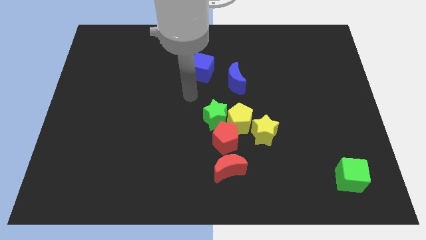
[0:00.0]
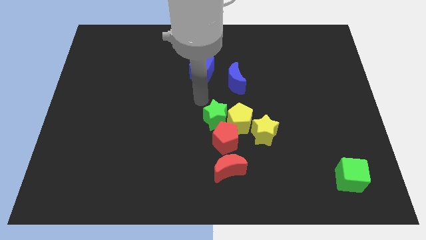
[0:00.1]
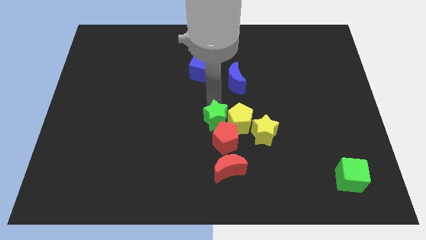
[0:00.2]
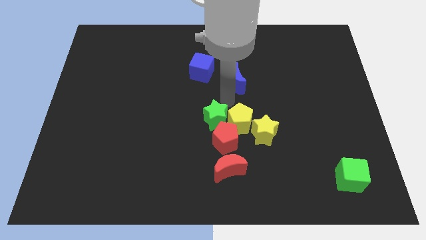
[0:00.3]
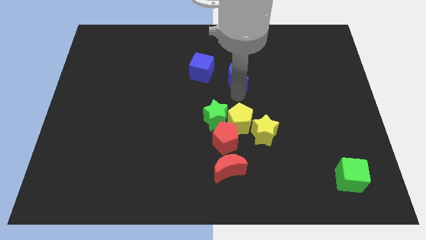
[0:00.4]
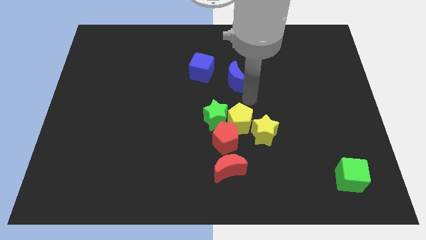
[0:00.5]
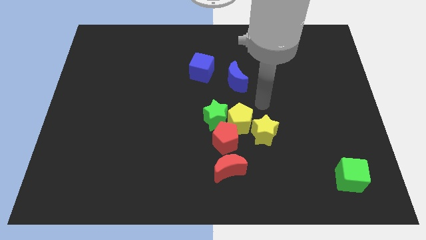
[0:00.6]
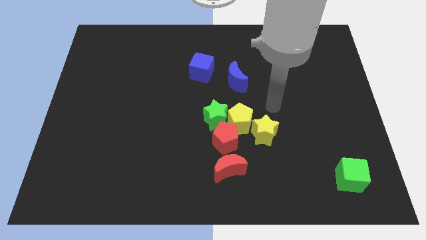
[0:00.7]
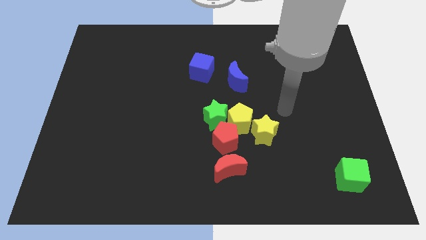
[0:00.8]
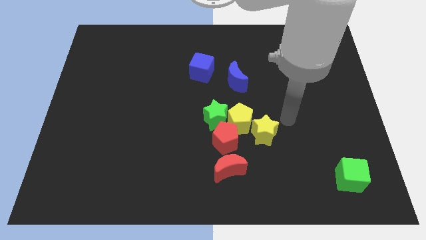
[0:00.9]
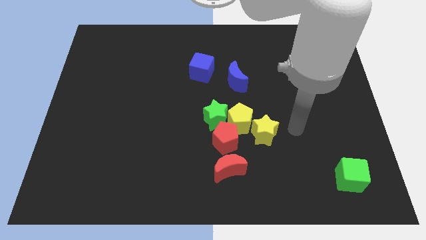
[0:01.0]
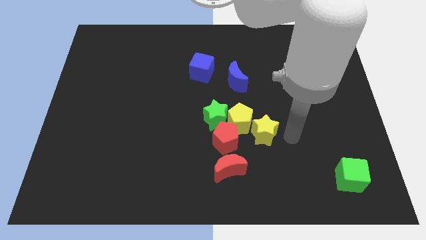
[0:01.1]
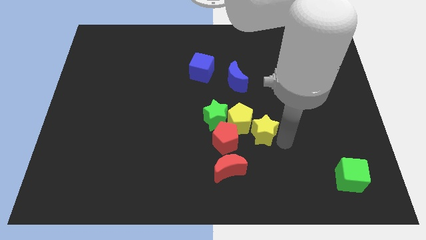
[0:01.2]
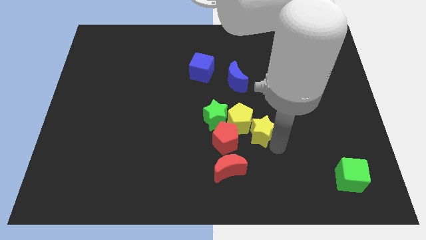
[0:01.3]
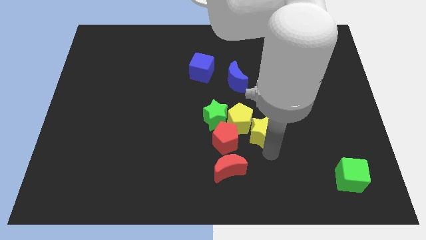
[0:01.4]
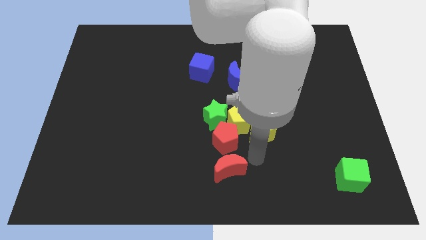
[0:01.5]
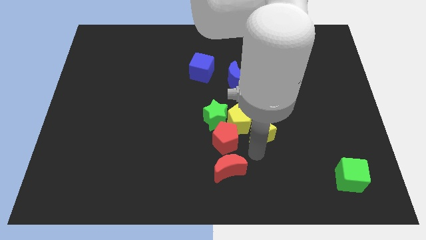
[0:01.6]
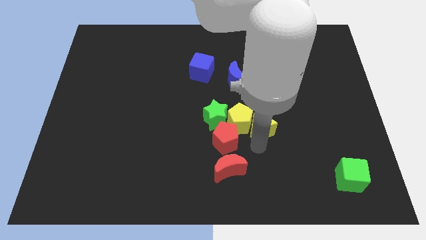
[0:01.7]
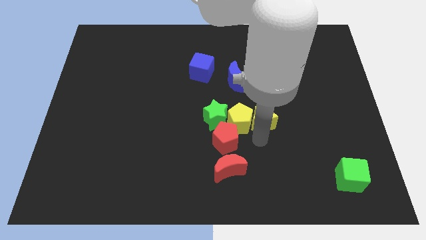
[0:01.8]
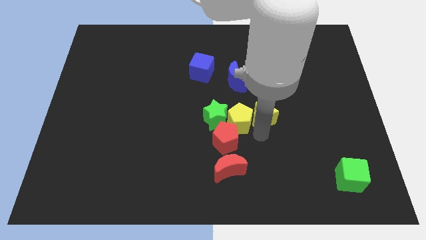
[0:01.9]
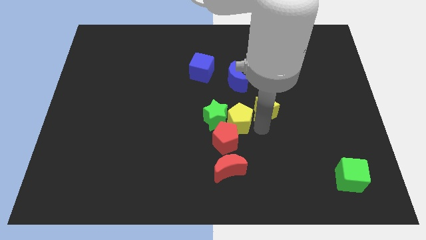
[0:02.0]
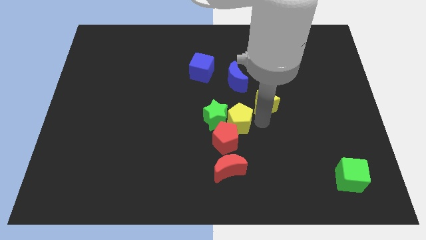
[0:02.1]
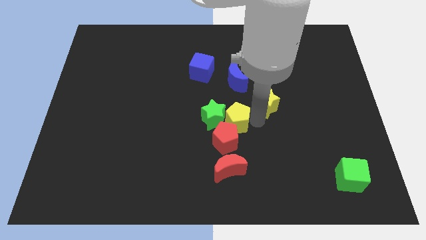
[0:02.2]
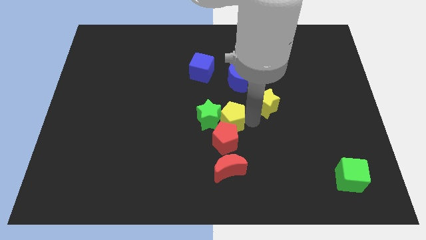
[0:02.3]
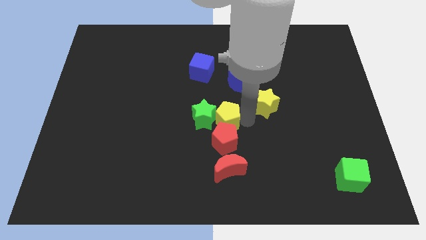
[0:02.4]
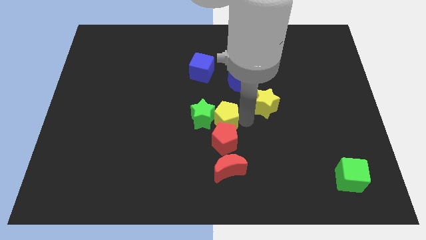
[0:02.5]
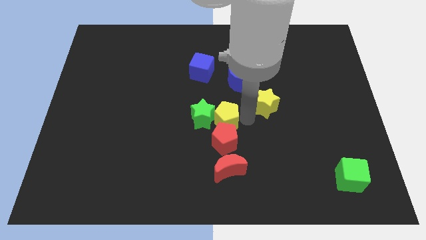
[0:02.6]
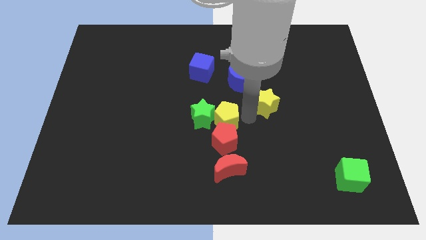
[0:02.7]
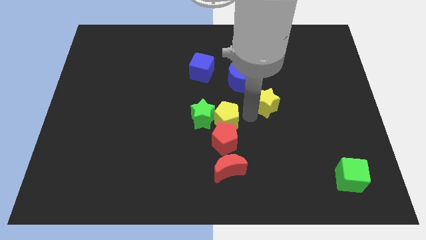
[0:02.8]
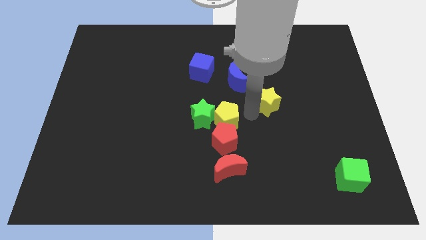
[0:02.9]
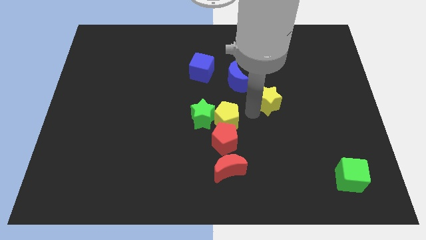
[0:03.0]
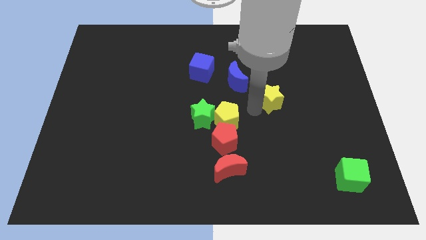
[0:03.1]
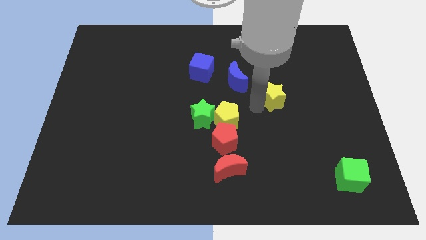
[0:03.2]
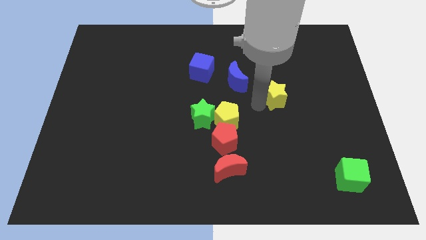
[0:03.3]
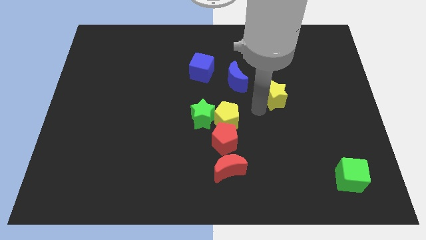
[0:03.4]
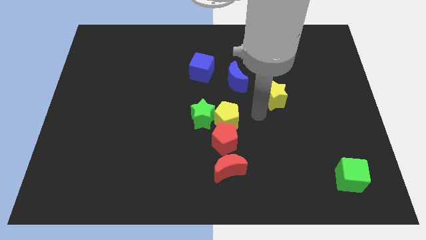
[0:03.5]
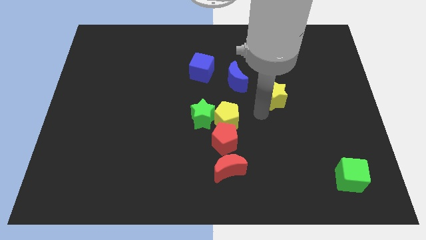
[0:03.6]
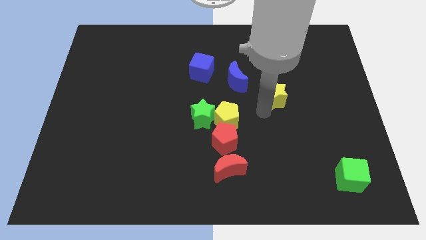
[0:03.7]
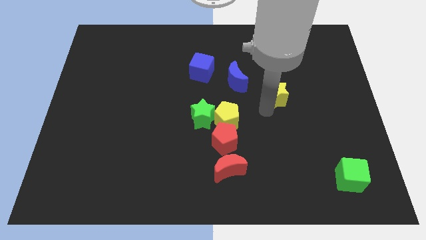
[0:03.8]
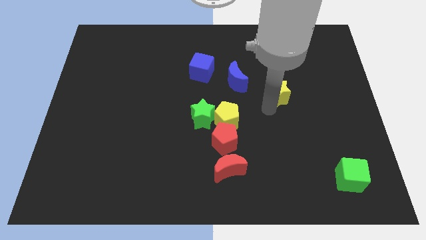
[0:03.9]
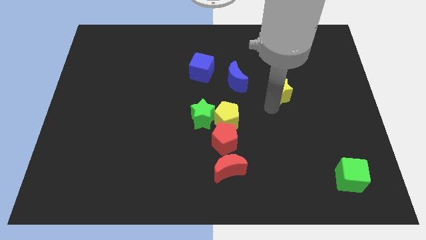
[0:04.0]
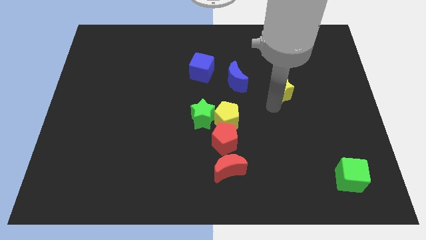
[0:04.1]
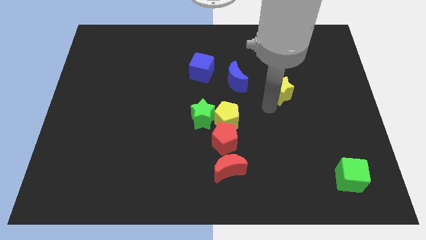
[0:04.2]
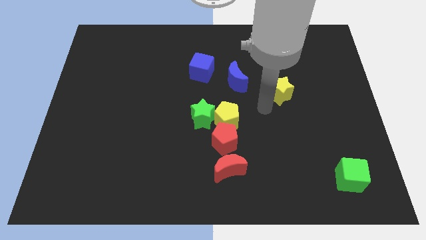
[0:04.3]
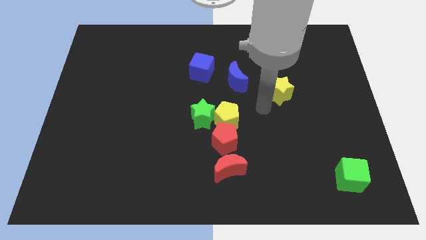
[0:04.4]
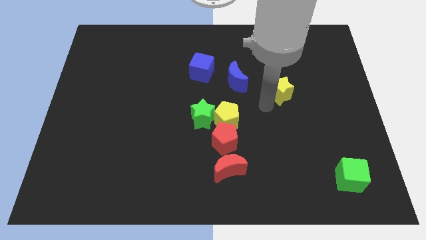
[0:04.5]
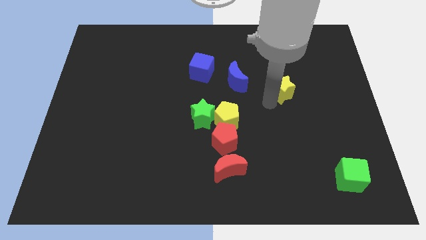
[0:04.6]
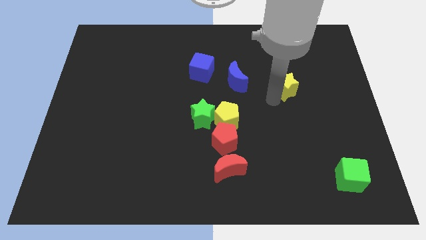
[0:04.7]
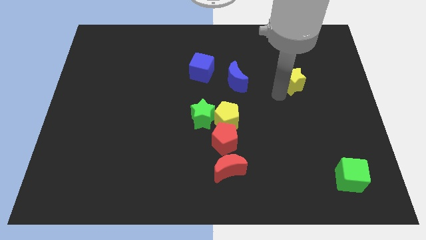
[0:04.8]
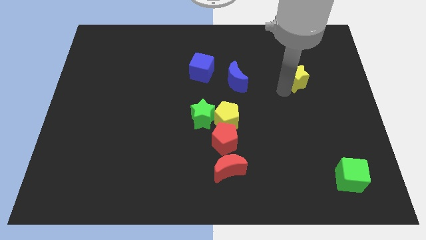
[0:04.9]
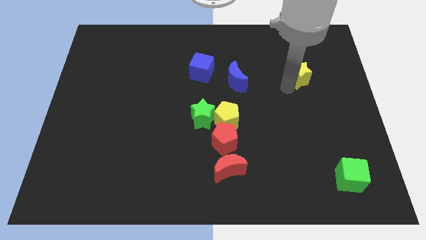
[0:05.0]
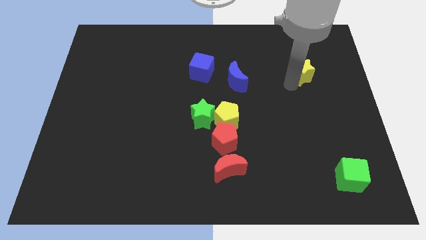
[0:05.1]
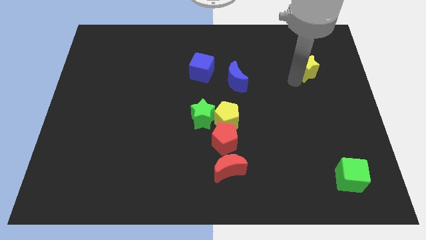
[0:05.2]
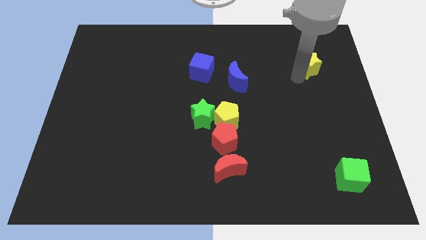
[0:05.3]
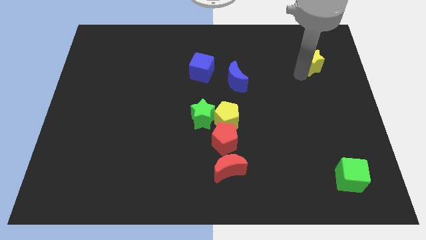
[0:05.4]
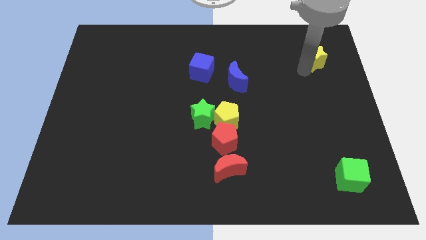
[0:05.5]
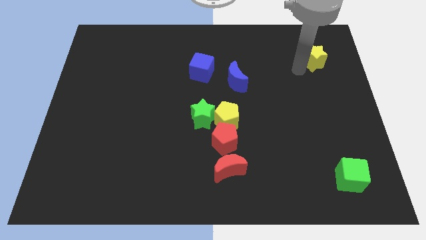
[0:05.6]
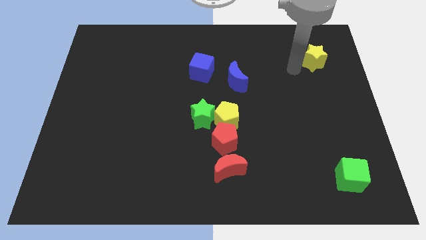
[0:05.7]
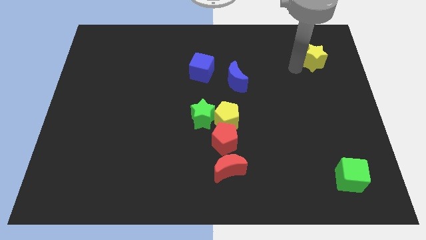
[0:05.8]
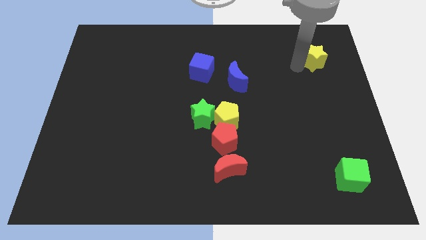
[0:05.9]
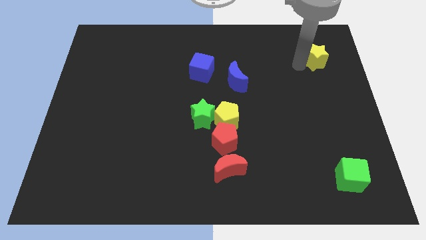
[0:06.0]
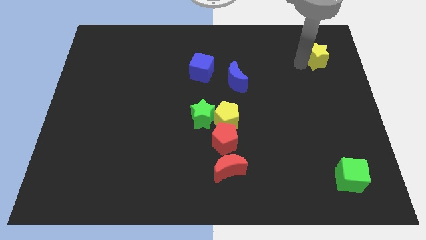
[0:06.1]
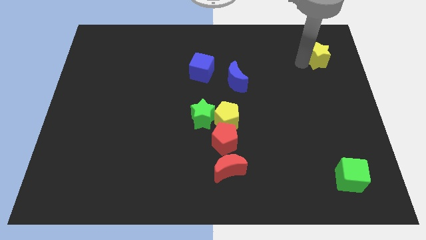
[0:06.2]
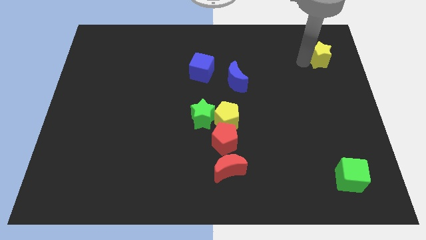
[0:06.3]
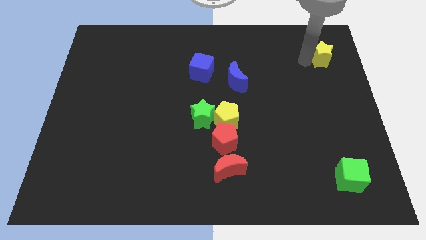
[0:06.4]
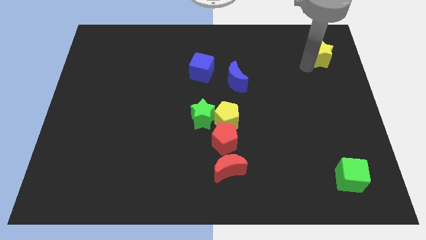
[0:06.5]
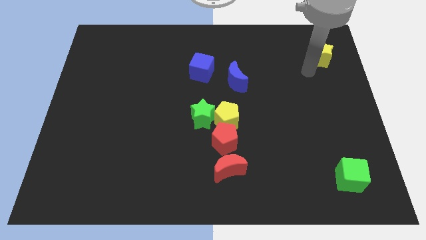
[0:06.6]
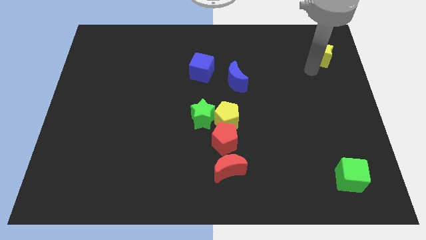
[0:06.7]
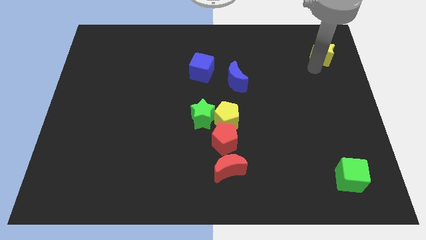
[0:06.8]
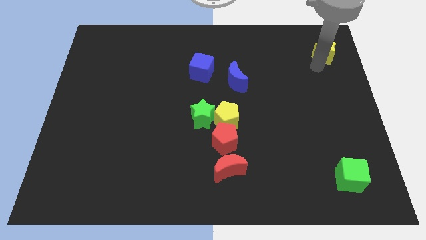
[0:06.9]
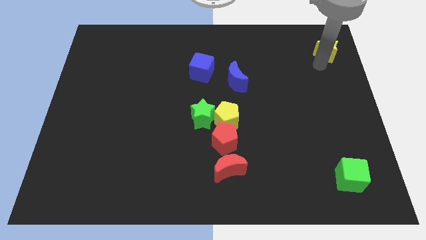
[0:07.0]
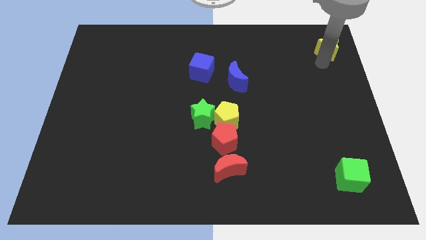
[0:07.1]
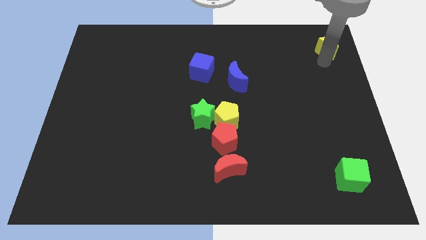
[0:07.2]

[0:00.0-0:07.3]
move the yellow star to the upper right corner
